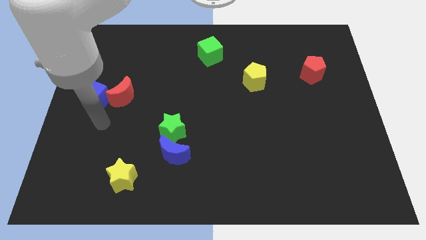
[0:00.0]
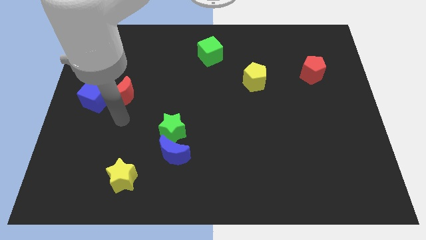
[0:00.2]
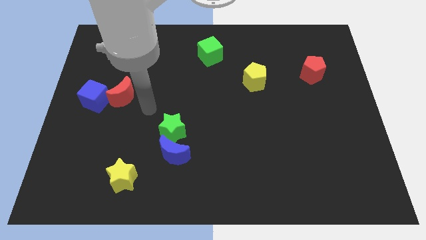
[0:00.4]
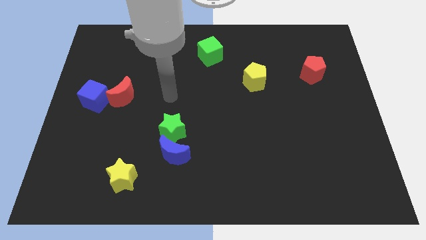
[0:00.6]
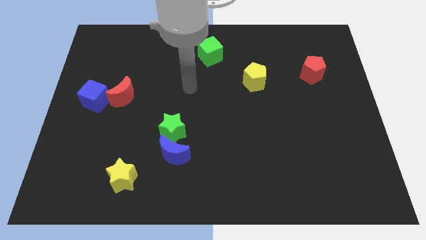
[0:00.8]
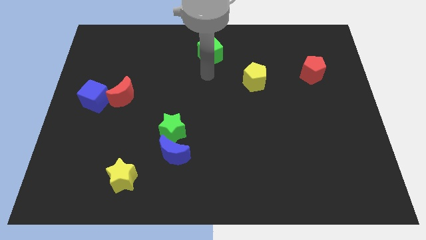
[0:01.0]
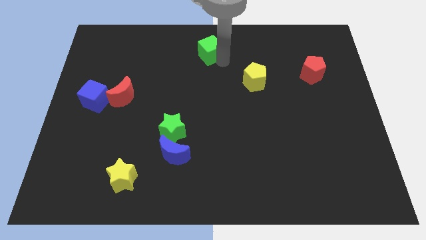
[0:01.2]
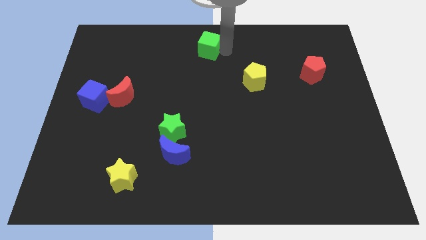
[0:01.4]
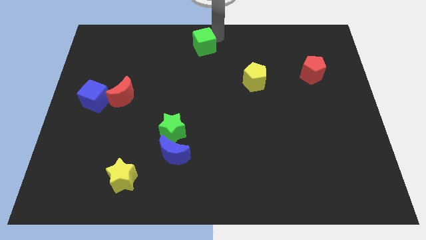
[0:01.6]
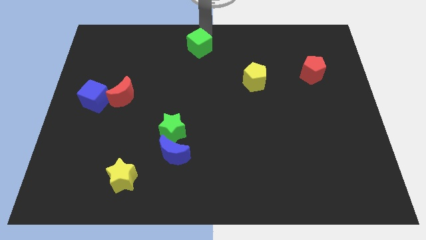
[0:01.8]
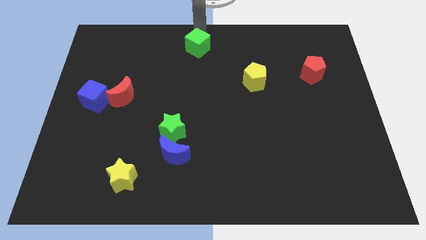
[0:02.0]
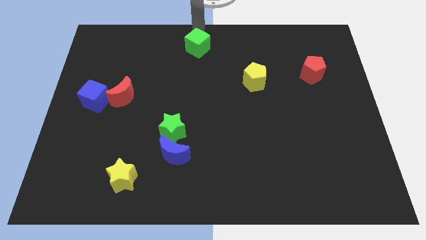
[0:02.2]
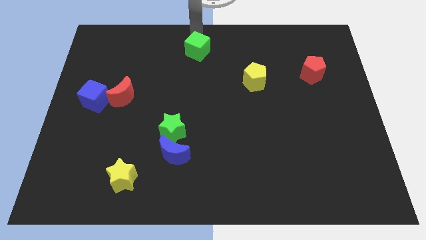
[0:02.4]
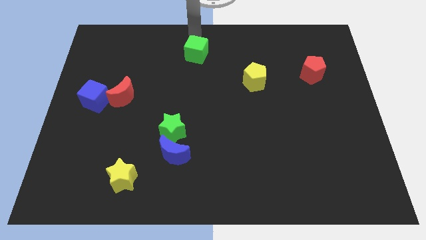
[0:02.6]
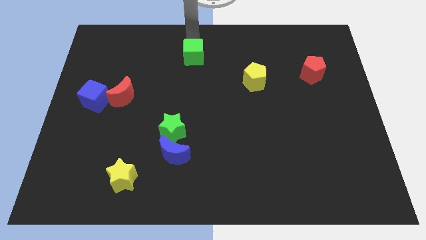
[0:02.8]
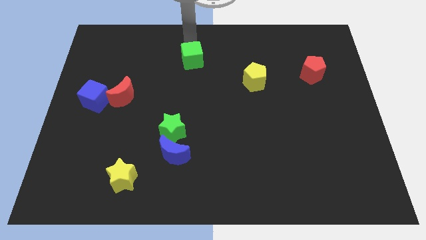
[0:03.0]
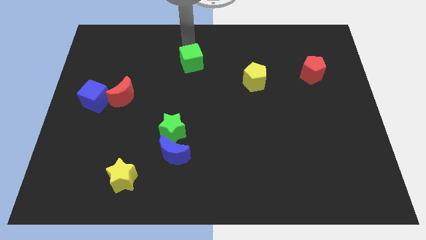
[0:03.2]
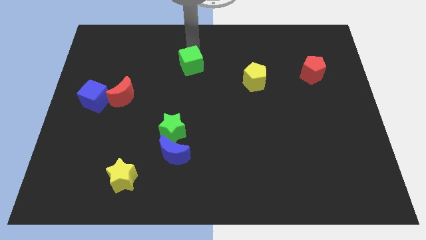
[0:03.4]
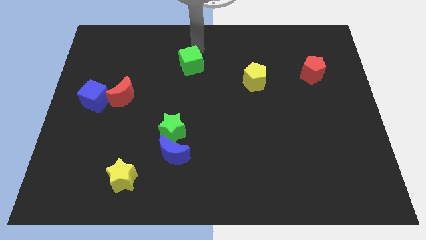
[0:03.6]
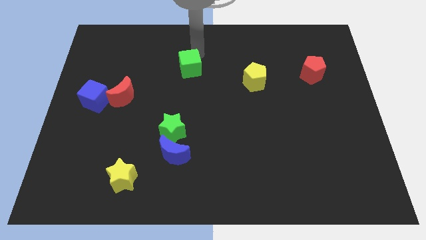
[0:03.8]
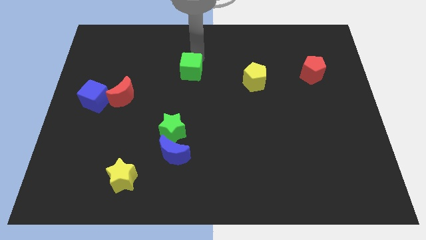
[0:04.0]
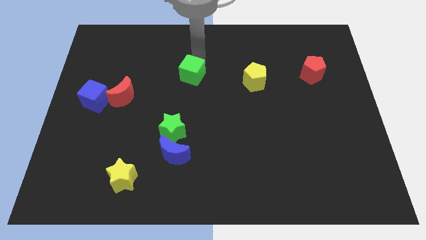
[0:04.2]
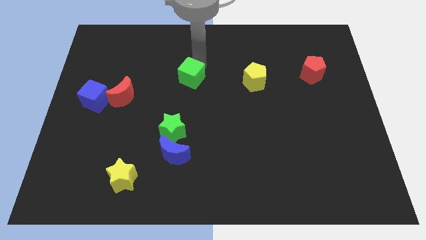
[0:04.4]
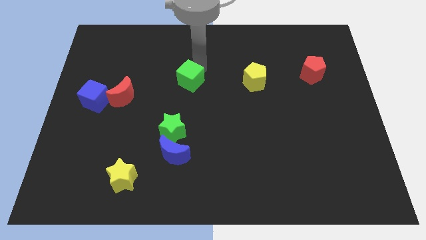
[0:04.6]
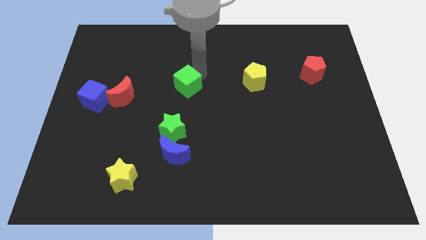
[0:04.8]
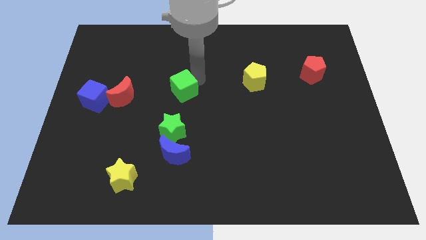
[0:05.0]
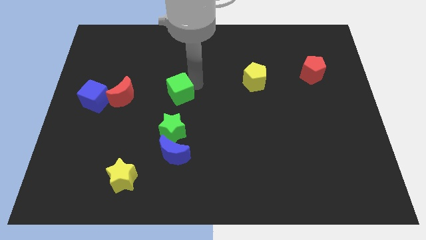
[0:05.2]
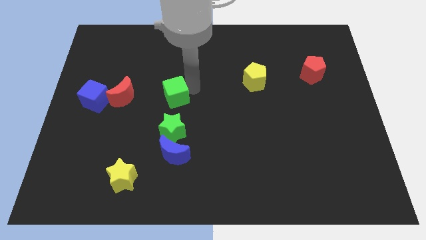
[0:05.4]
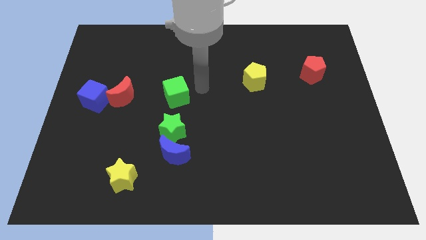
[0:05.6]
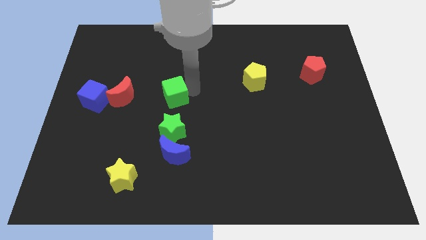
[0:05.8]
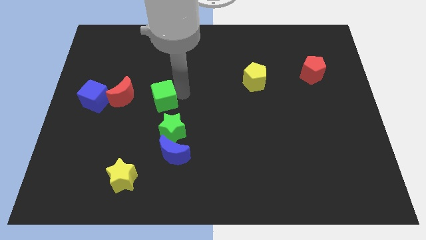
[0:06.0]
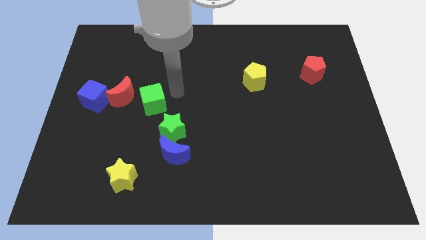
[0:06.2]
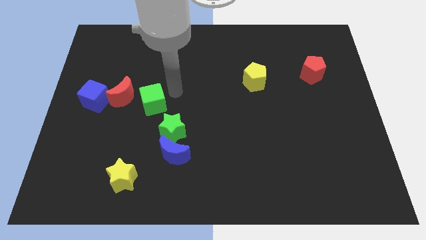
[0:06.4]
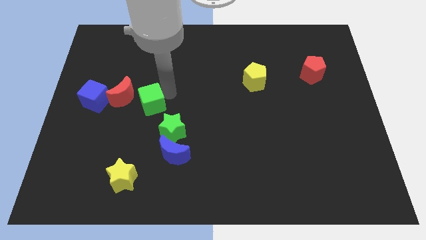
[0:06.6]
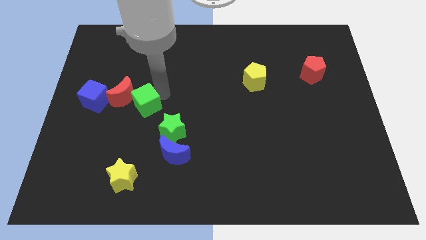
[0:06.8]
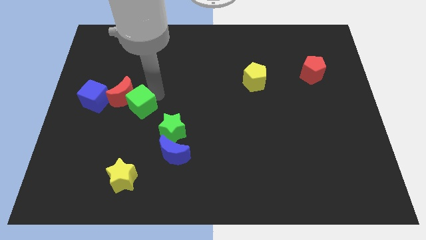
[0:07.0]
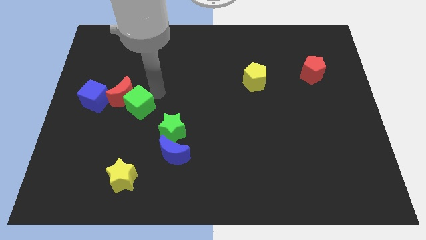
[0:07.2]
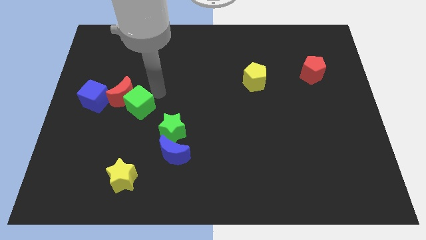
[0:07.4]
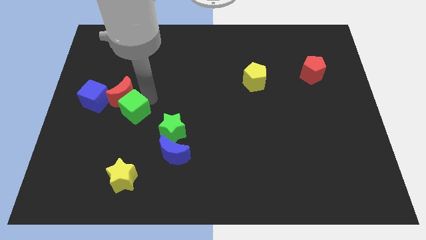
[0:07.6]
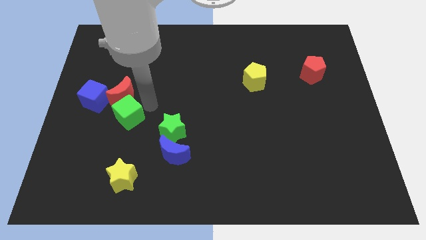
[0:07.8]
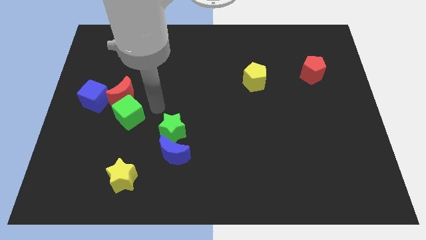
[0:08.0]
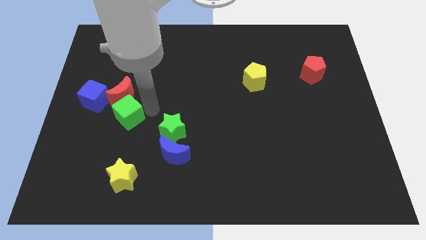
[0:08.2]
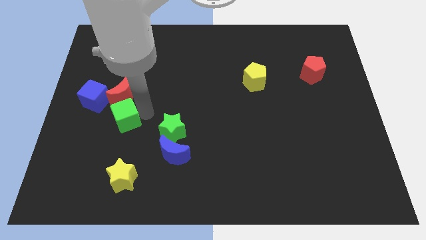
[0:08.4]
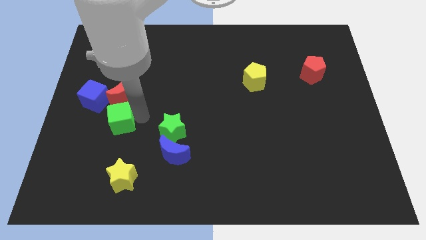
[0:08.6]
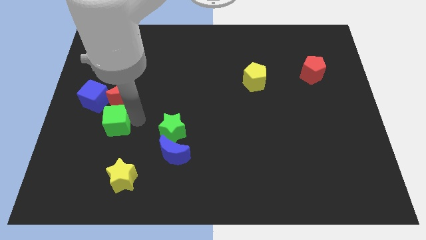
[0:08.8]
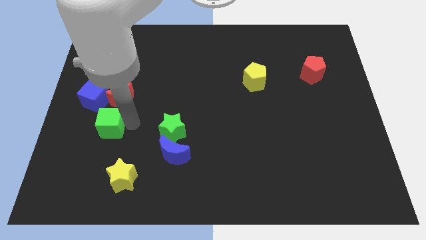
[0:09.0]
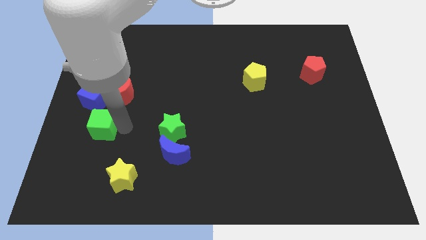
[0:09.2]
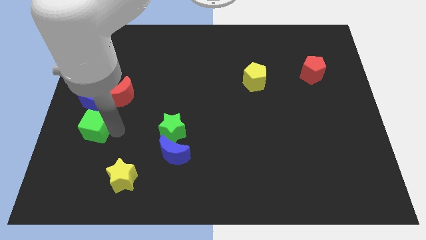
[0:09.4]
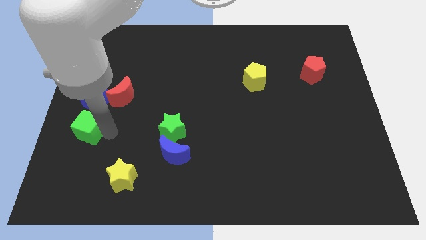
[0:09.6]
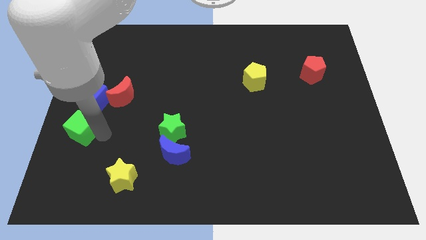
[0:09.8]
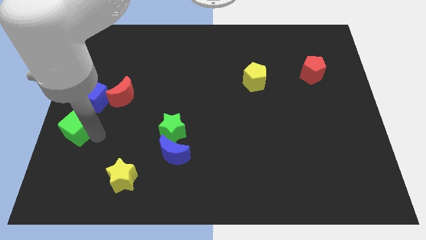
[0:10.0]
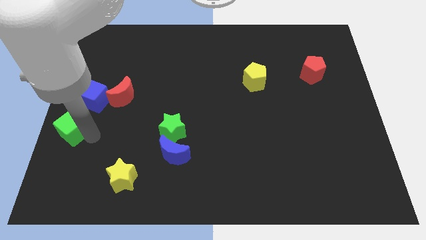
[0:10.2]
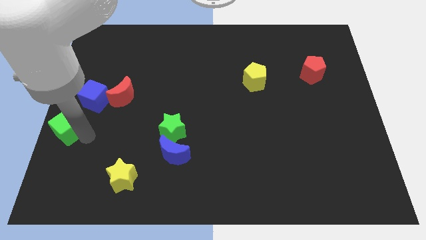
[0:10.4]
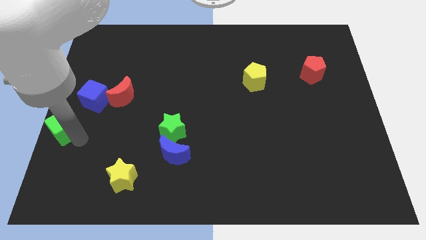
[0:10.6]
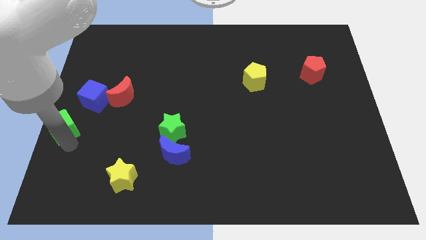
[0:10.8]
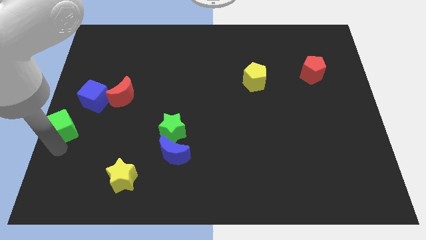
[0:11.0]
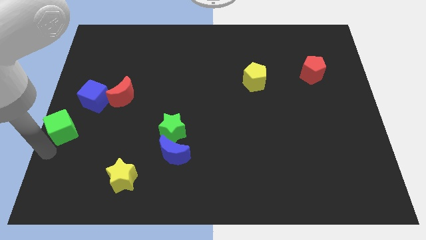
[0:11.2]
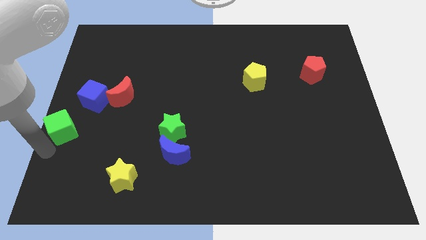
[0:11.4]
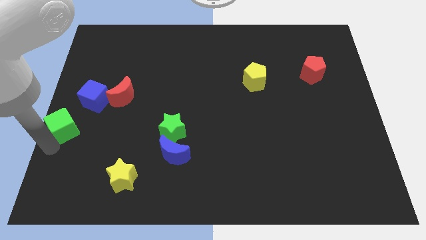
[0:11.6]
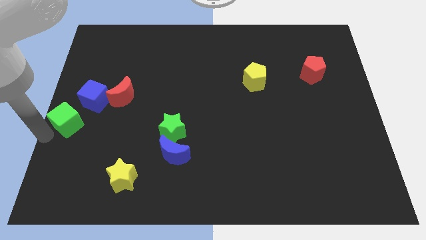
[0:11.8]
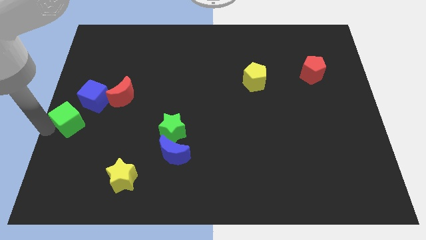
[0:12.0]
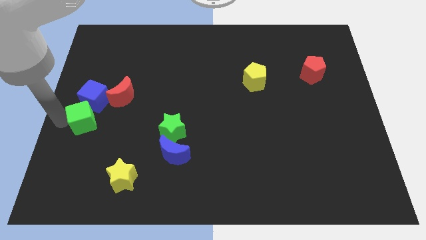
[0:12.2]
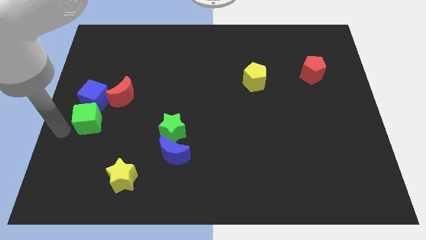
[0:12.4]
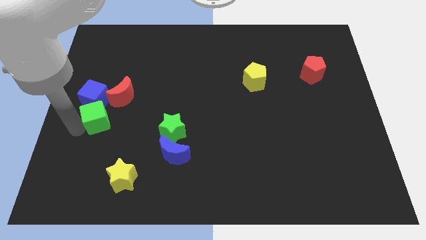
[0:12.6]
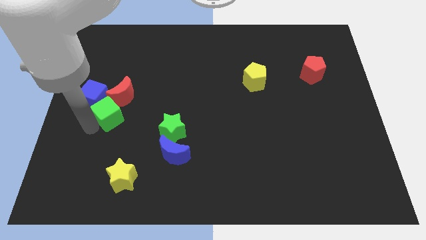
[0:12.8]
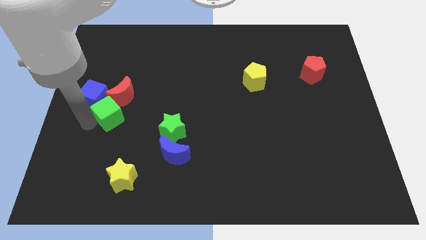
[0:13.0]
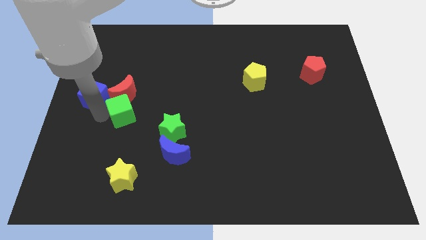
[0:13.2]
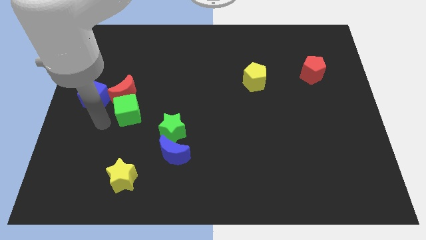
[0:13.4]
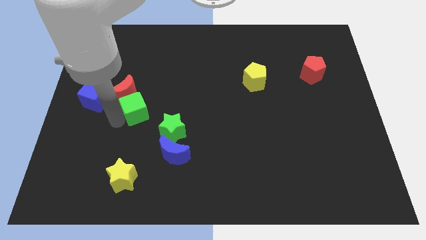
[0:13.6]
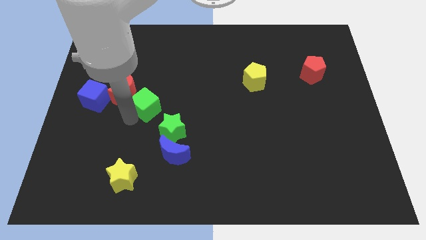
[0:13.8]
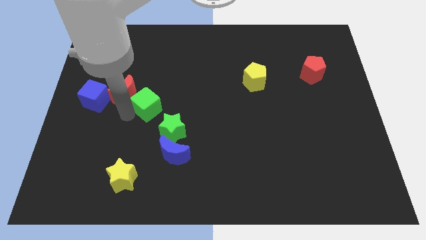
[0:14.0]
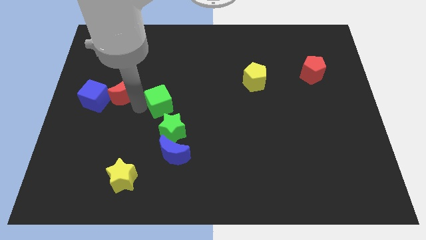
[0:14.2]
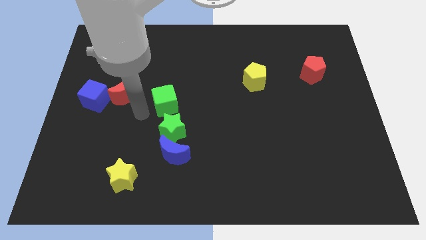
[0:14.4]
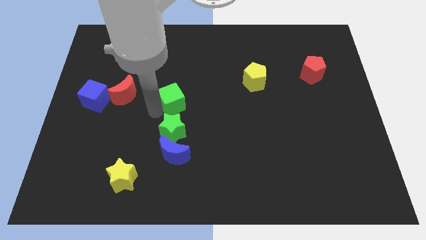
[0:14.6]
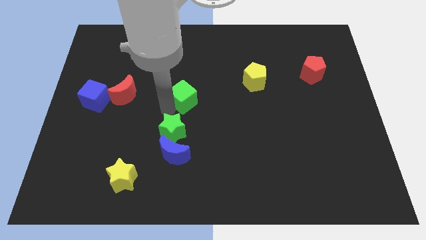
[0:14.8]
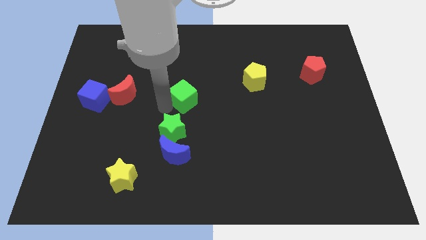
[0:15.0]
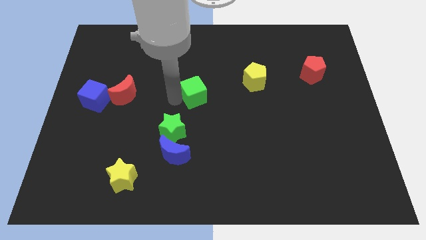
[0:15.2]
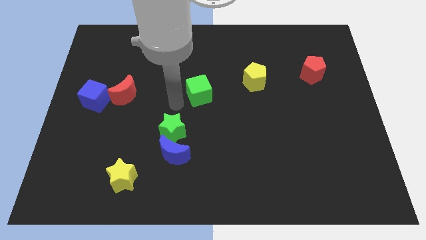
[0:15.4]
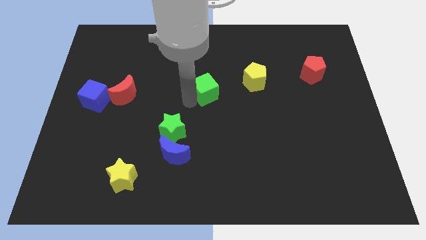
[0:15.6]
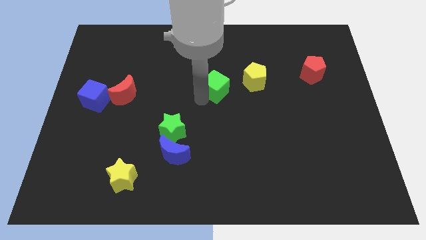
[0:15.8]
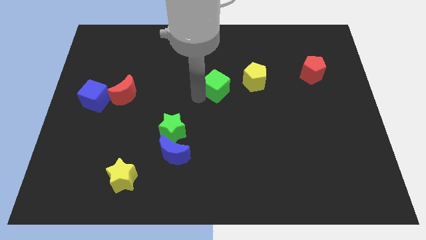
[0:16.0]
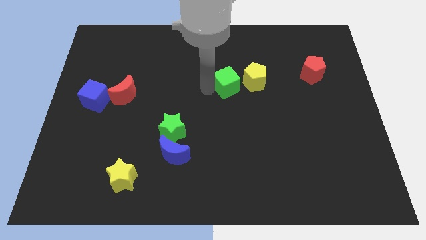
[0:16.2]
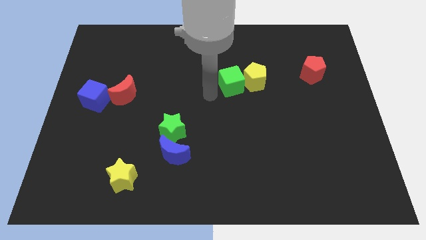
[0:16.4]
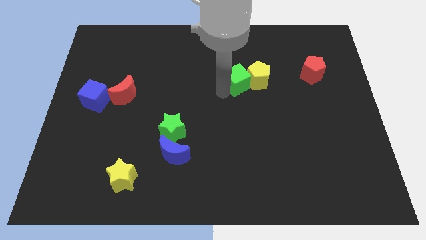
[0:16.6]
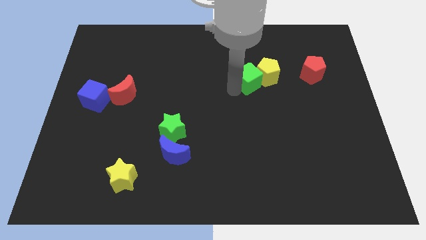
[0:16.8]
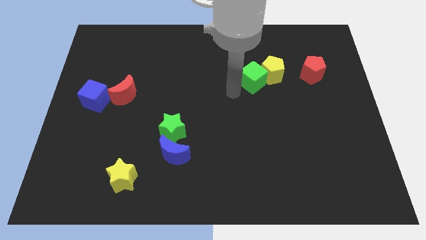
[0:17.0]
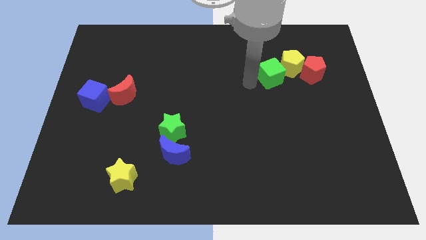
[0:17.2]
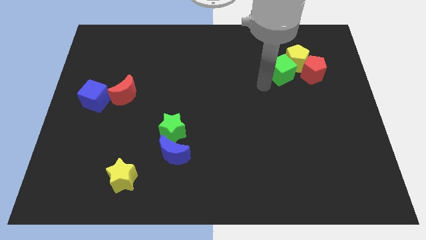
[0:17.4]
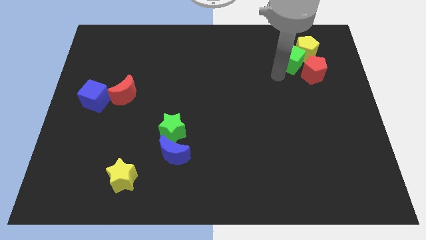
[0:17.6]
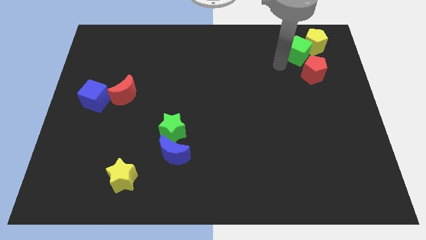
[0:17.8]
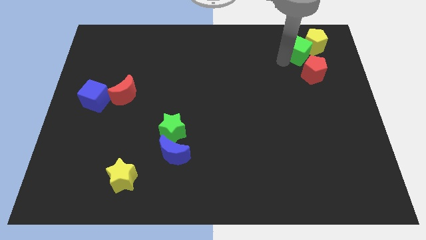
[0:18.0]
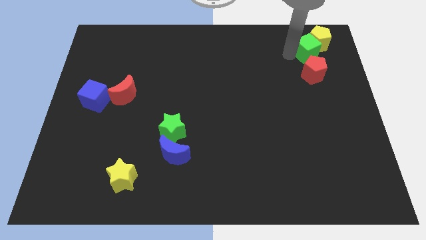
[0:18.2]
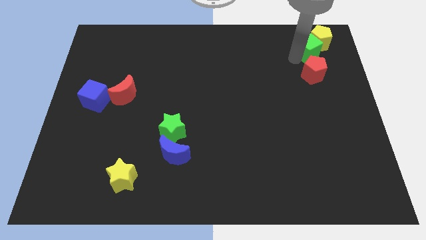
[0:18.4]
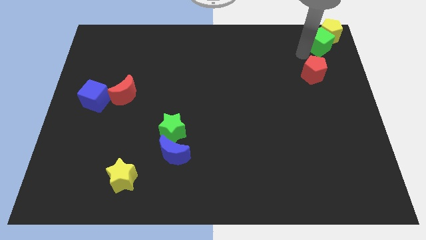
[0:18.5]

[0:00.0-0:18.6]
put the green cube to the upper right corner
